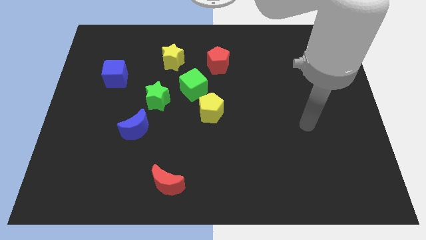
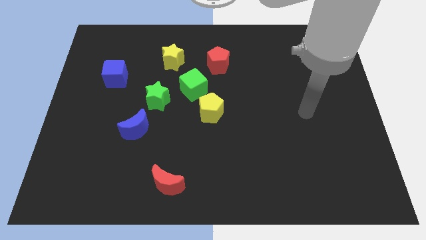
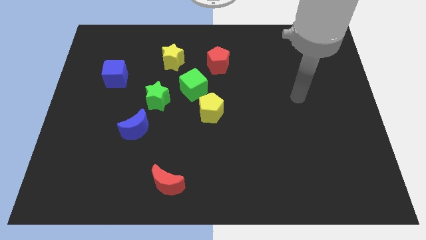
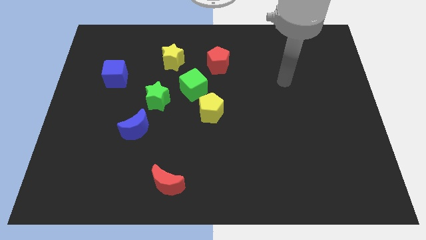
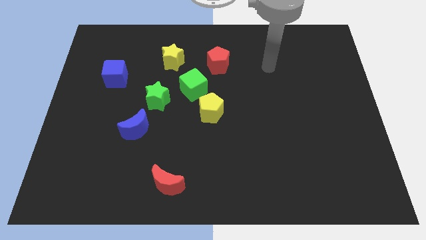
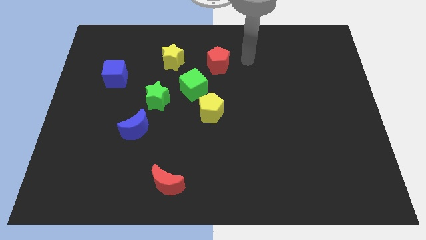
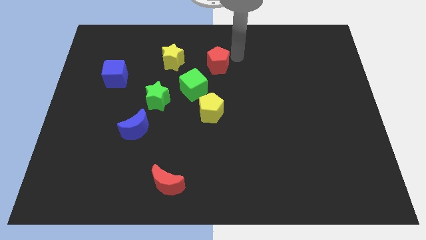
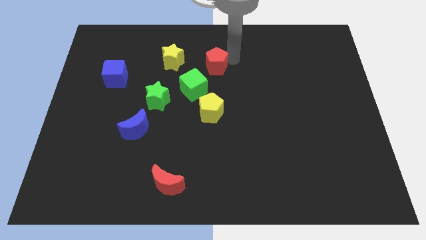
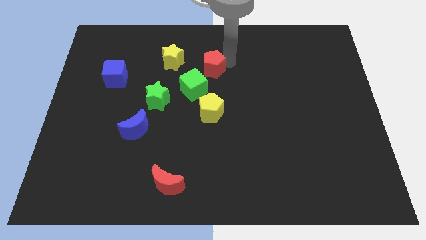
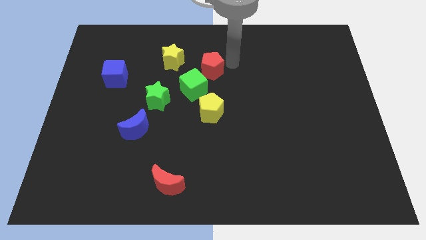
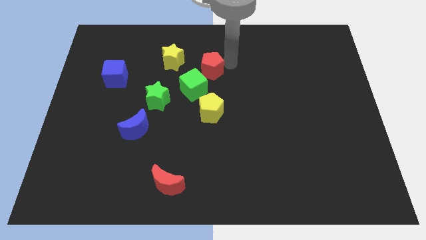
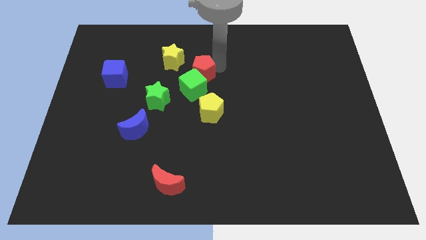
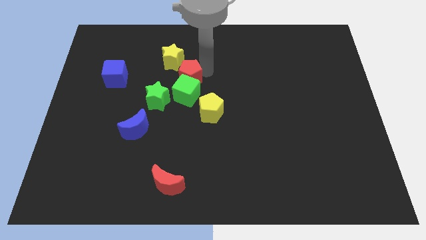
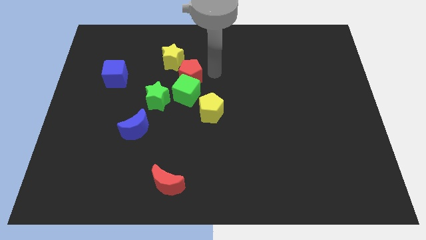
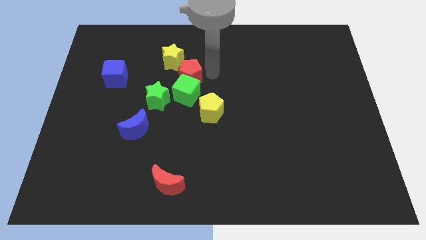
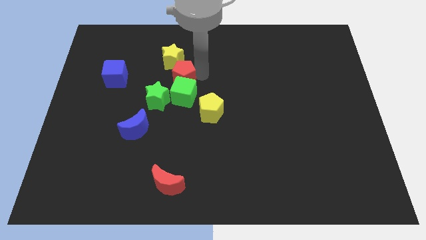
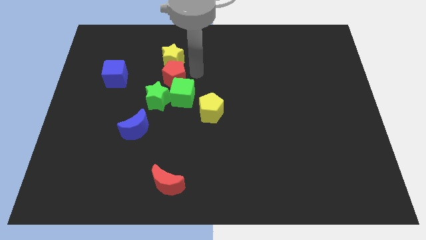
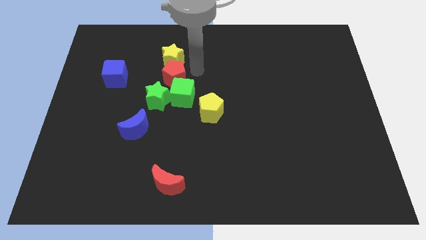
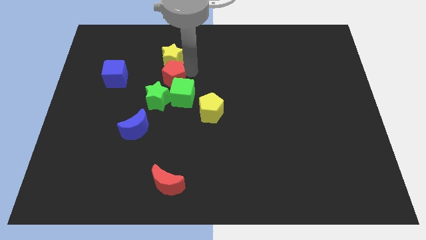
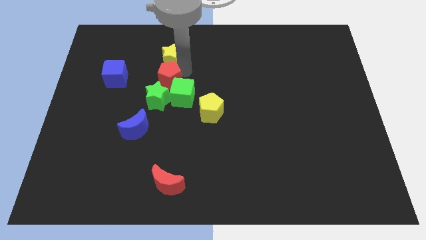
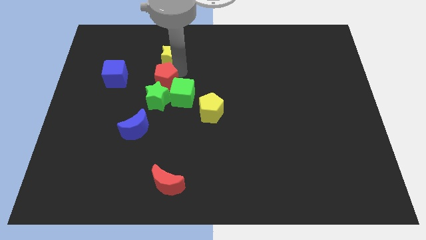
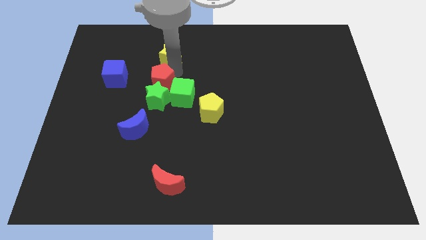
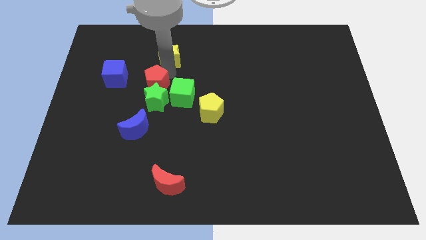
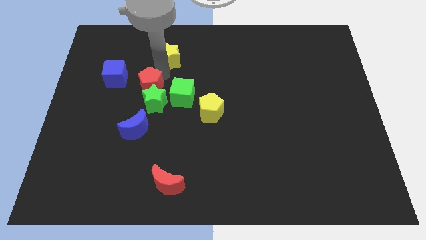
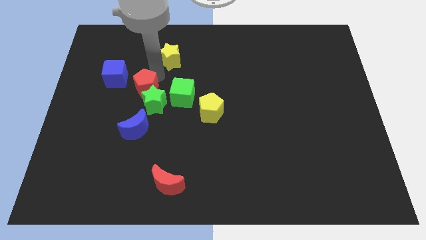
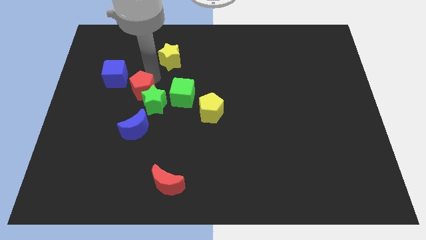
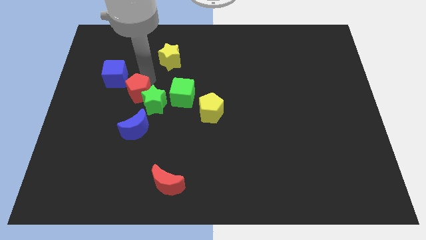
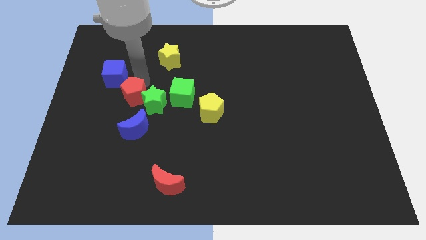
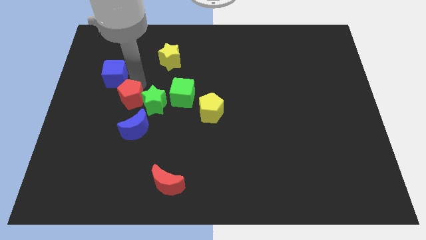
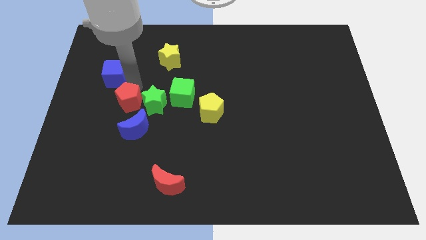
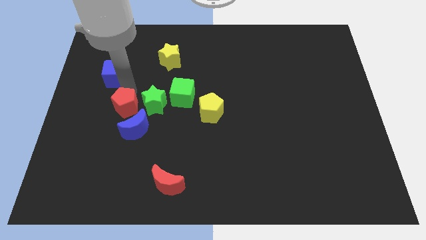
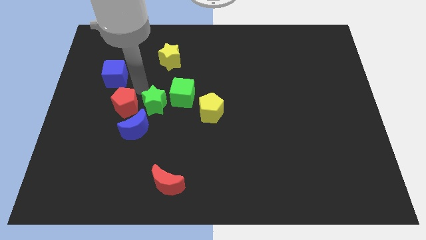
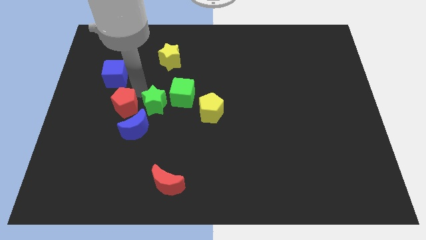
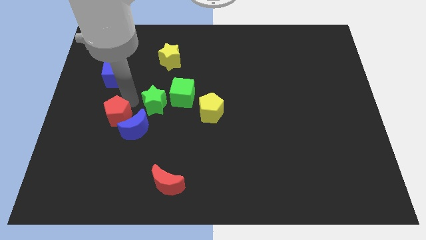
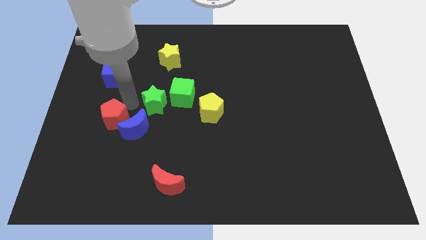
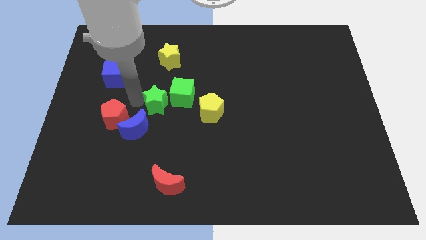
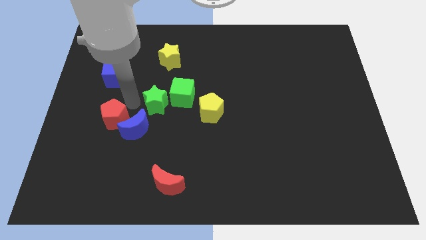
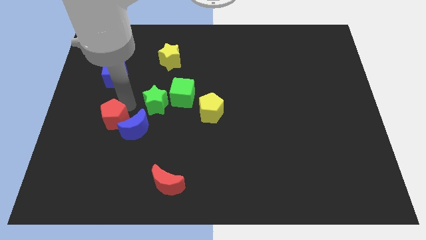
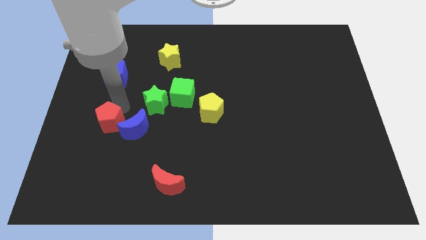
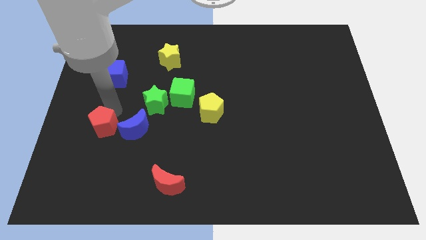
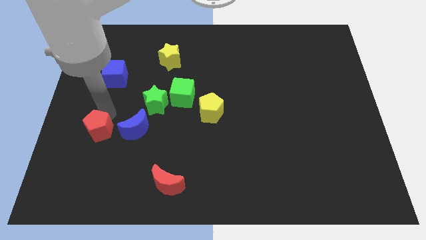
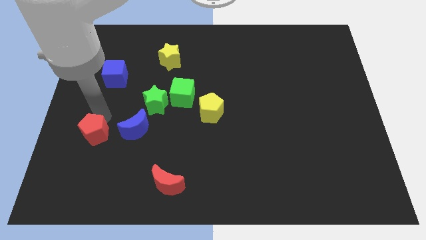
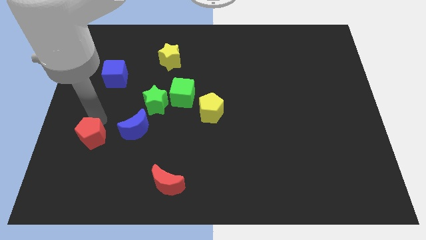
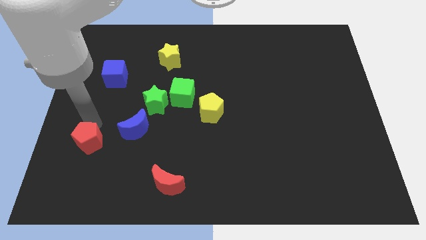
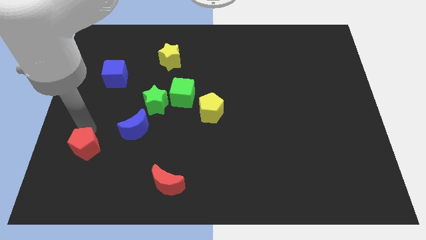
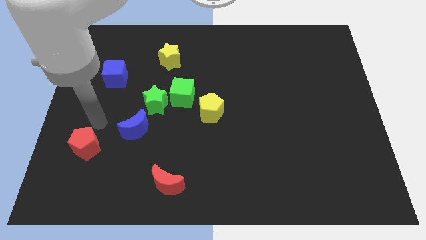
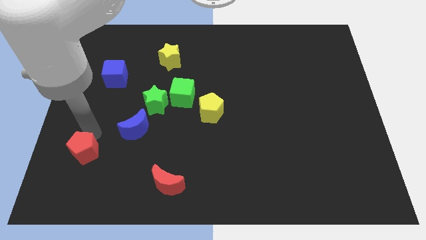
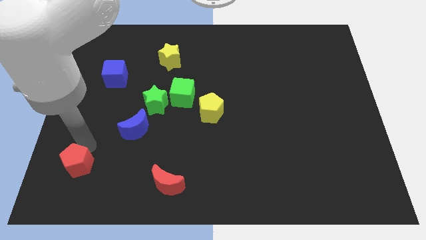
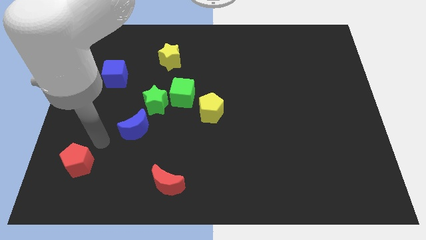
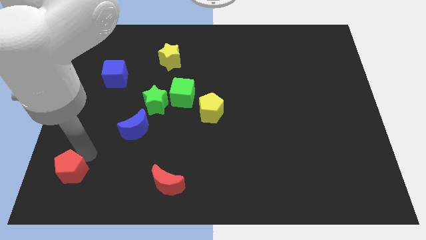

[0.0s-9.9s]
push the red pentagon to the bottom left

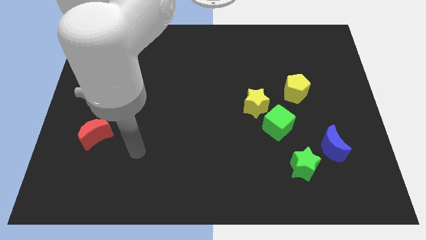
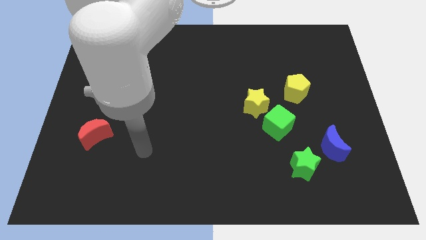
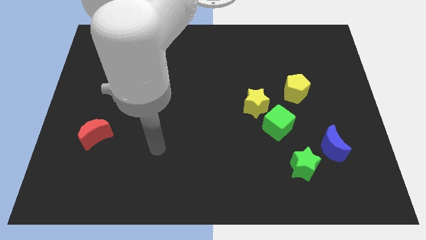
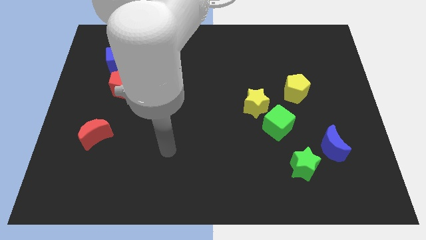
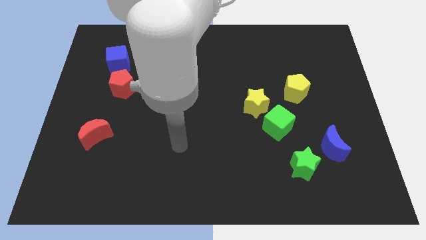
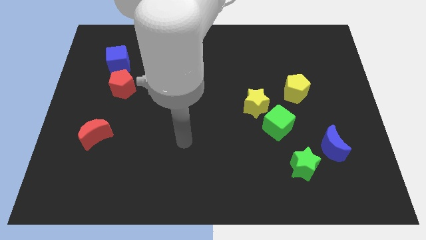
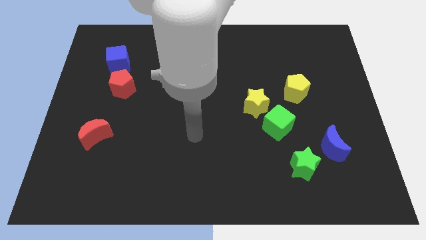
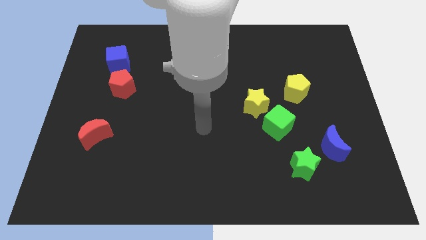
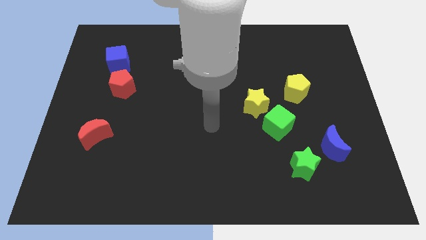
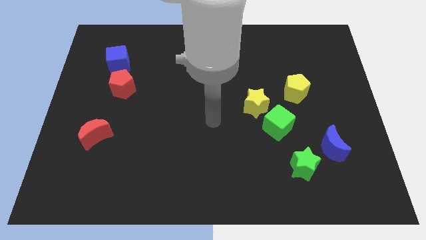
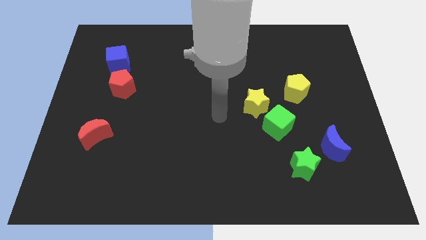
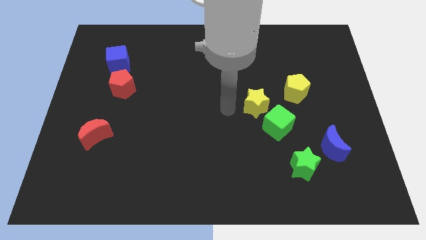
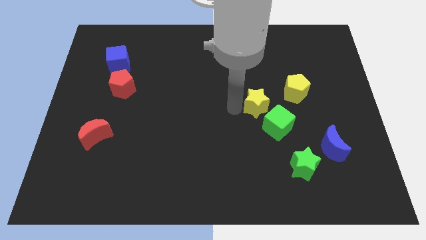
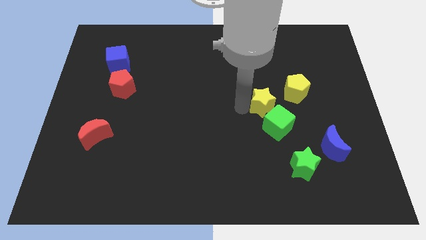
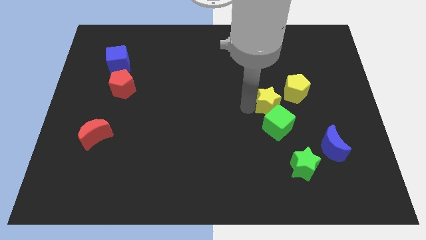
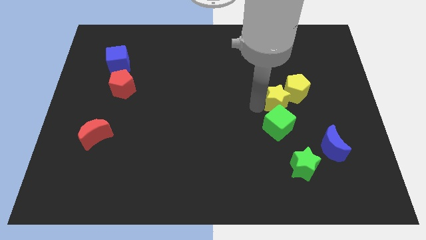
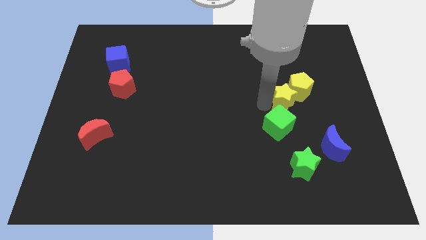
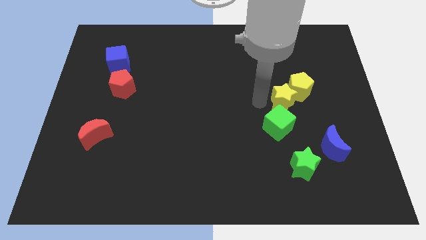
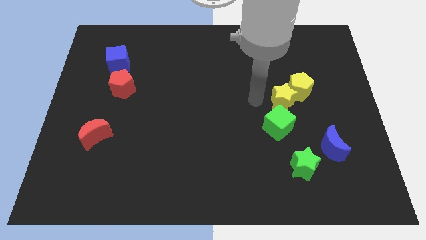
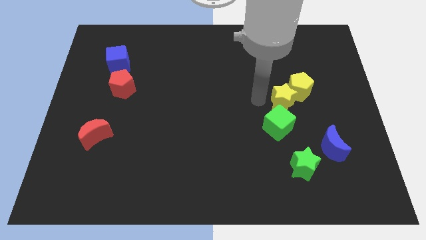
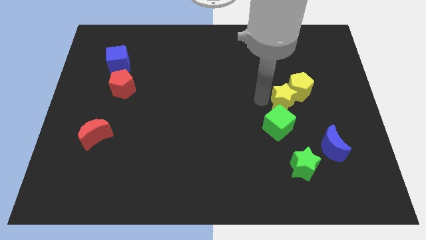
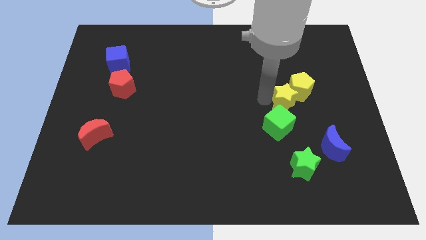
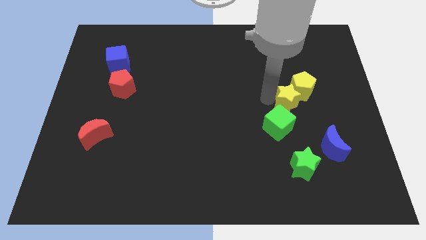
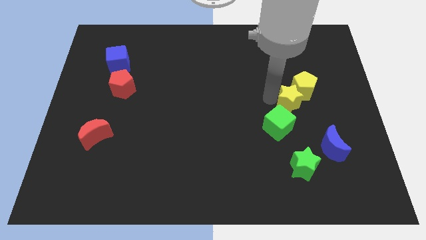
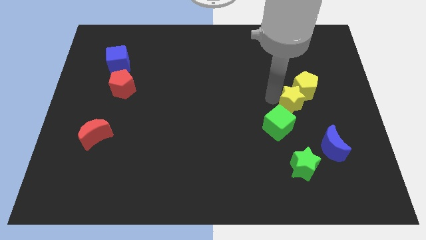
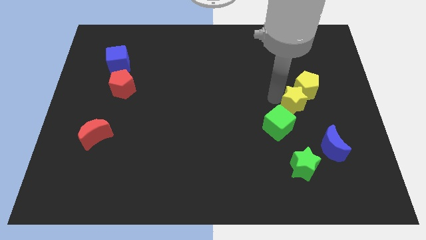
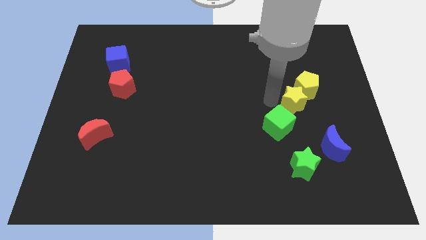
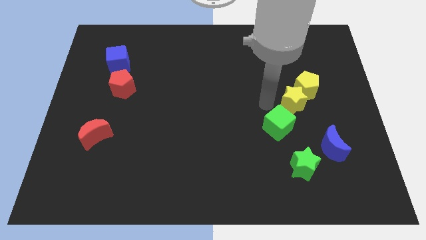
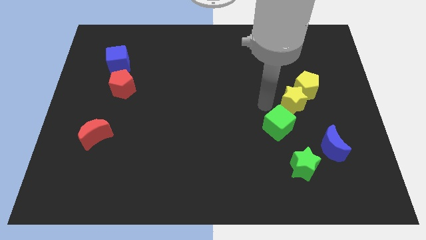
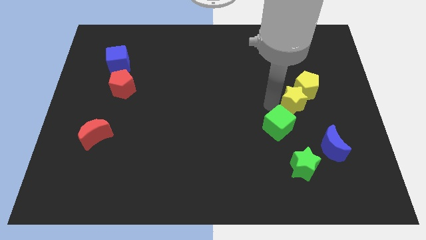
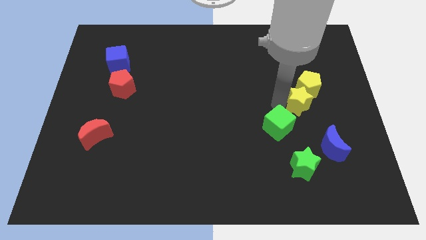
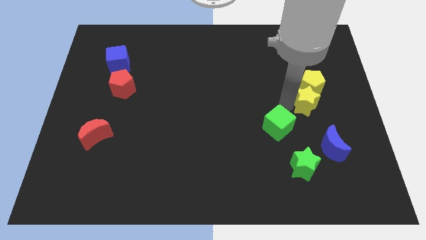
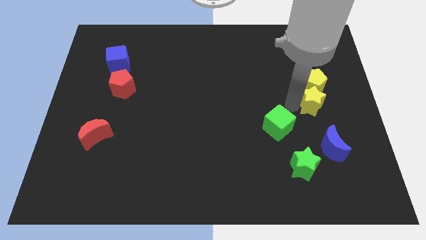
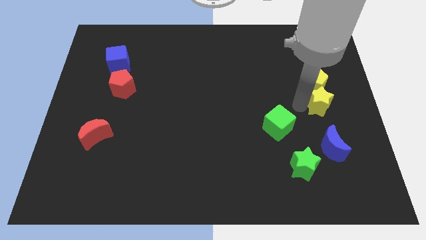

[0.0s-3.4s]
push the yellow star to the right side
